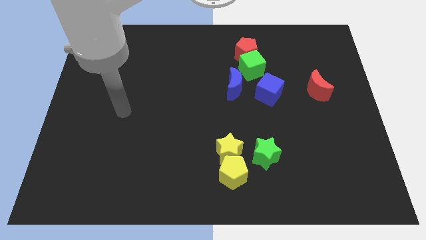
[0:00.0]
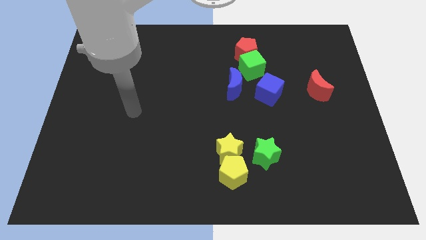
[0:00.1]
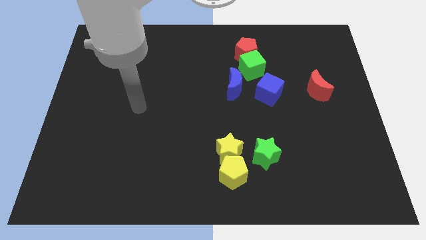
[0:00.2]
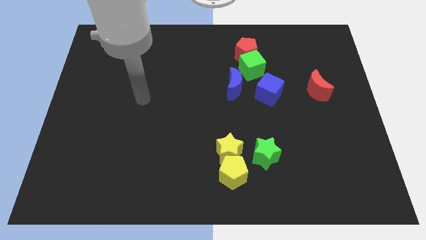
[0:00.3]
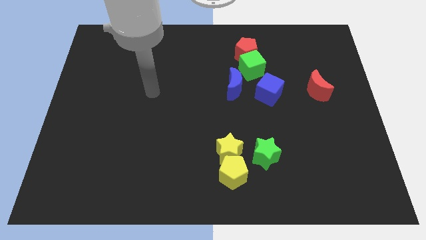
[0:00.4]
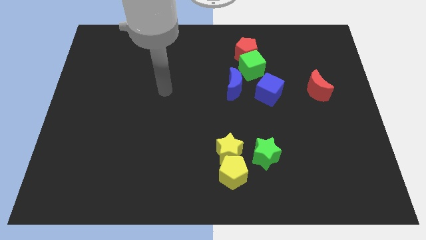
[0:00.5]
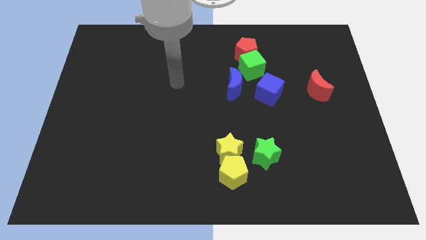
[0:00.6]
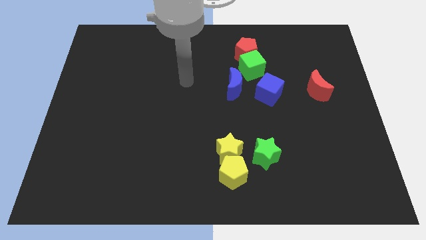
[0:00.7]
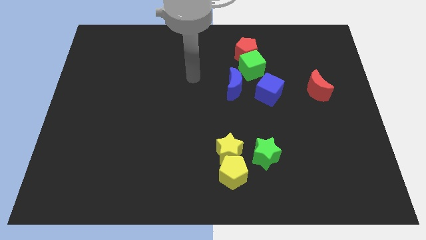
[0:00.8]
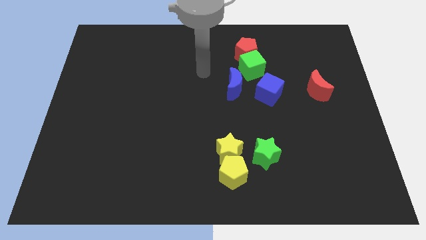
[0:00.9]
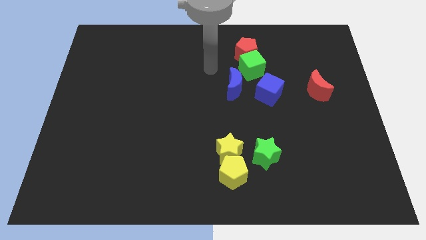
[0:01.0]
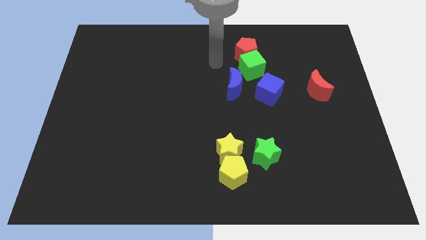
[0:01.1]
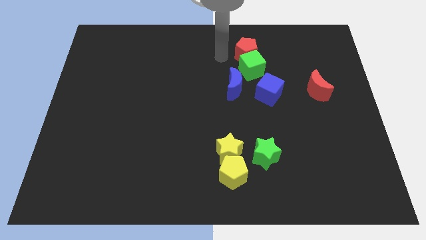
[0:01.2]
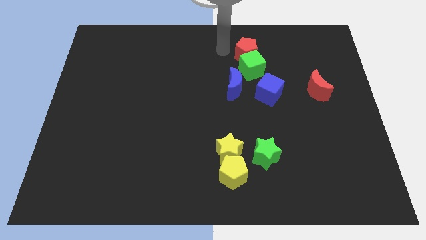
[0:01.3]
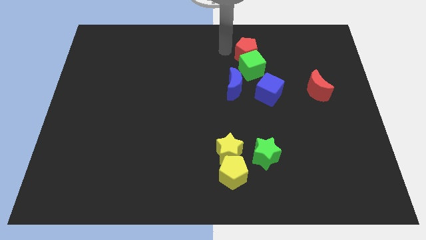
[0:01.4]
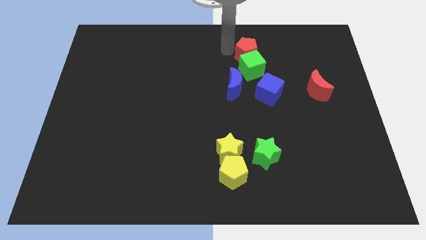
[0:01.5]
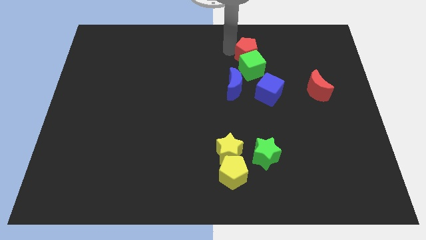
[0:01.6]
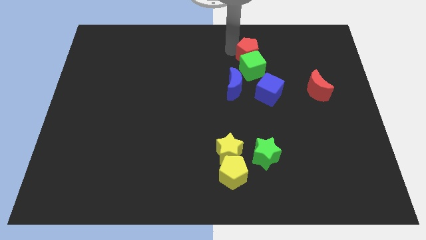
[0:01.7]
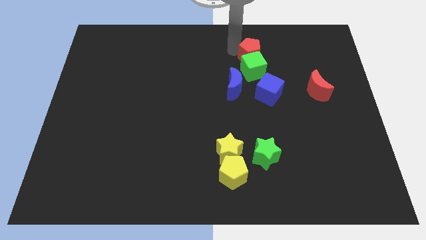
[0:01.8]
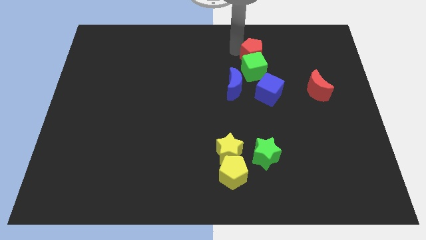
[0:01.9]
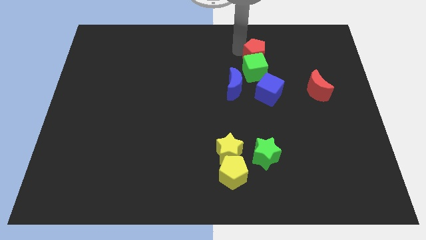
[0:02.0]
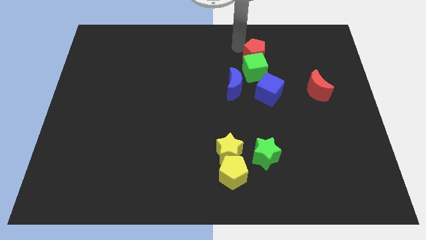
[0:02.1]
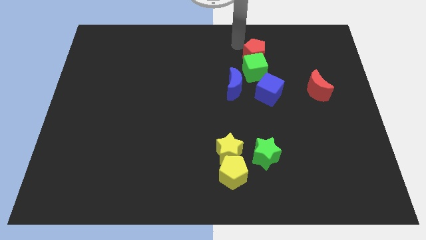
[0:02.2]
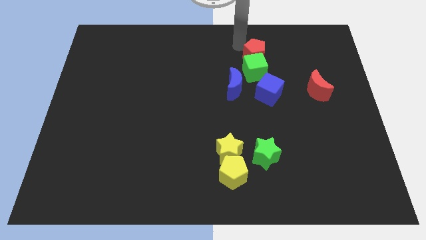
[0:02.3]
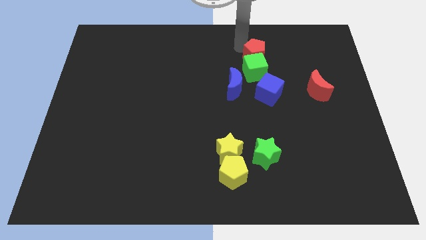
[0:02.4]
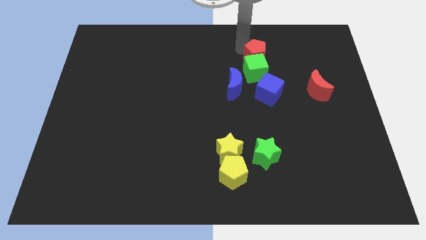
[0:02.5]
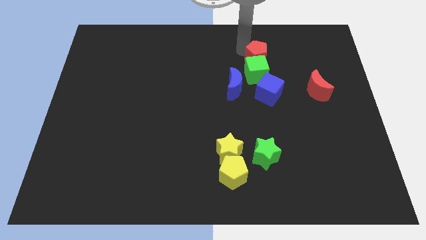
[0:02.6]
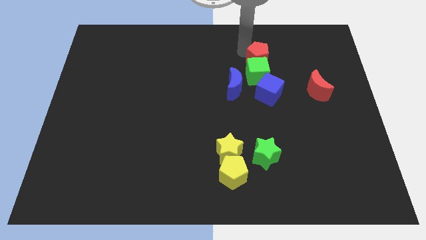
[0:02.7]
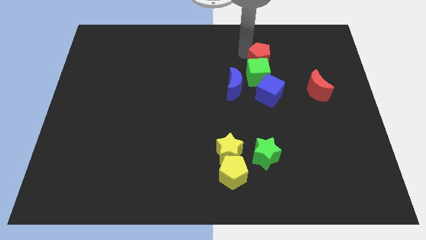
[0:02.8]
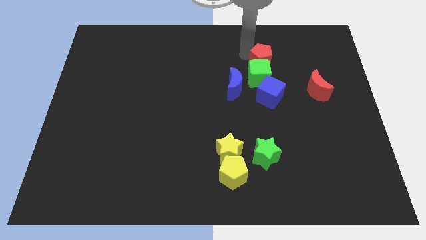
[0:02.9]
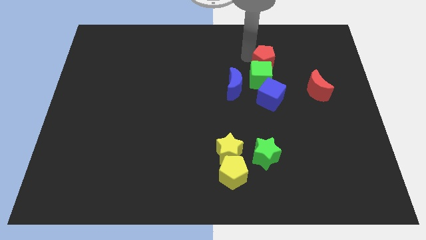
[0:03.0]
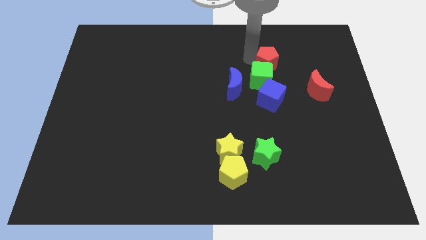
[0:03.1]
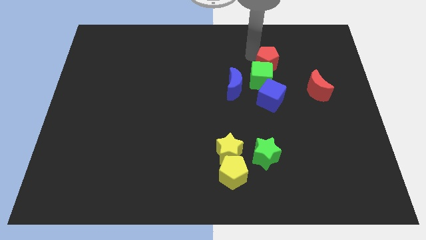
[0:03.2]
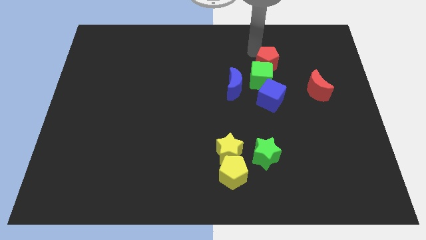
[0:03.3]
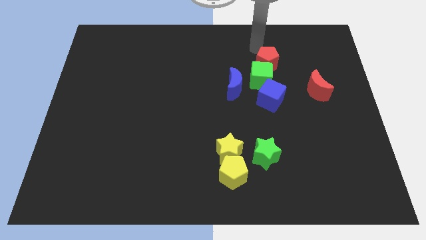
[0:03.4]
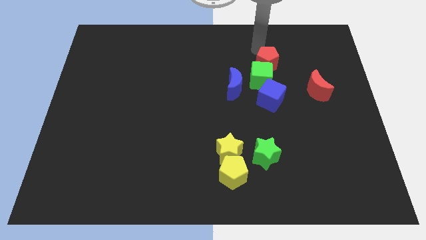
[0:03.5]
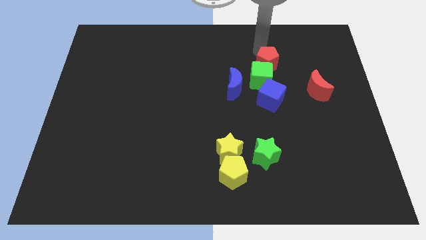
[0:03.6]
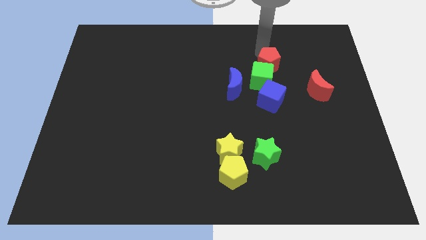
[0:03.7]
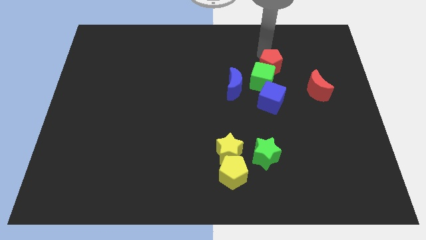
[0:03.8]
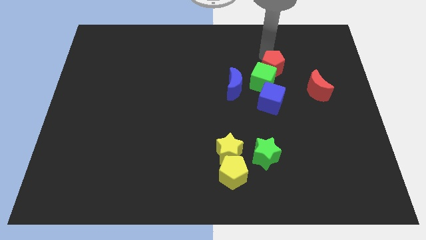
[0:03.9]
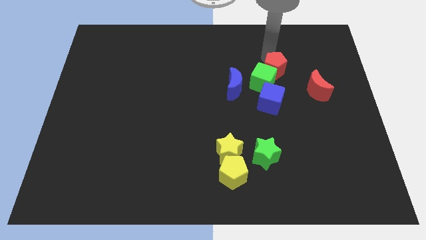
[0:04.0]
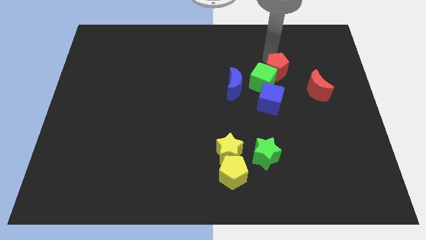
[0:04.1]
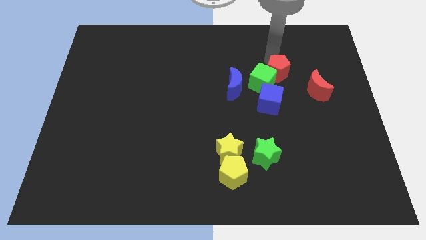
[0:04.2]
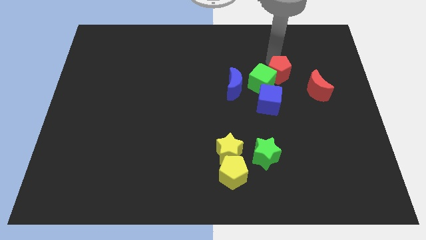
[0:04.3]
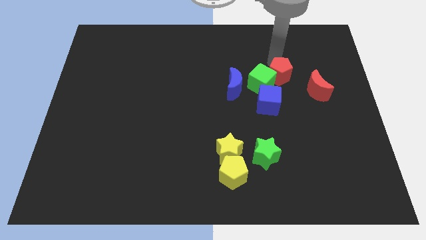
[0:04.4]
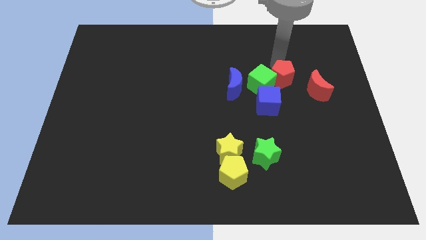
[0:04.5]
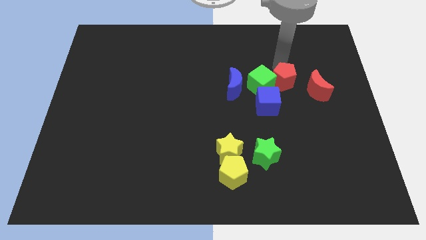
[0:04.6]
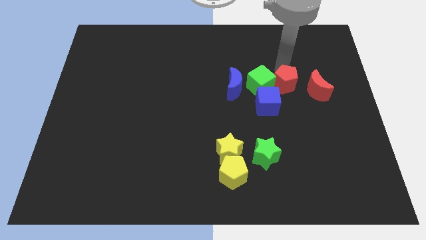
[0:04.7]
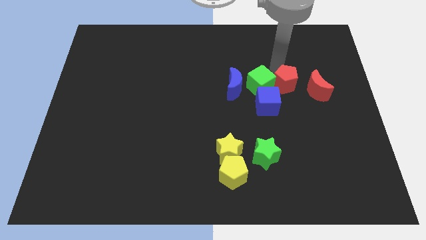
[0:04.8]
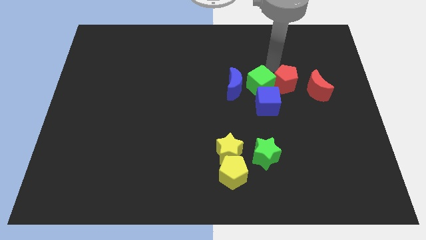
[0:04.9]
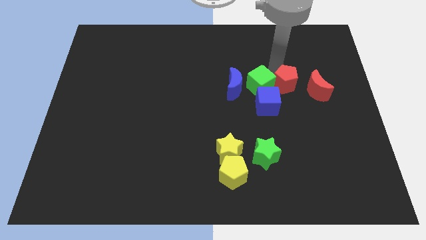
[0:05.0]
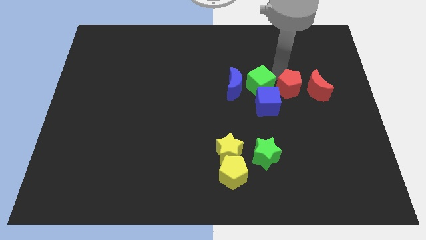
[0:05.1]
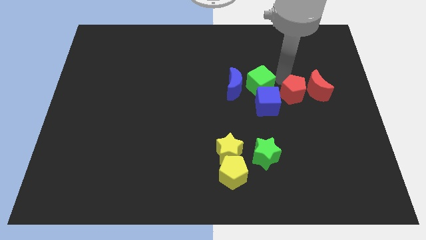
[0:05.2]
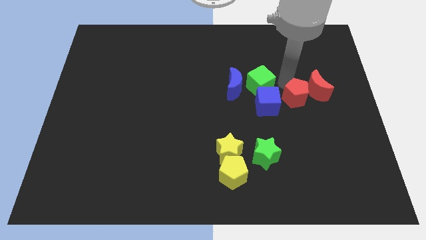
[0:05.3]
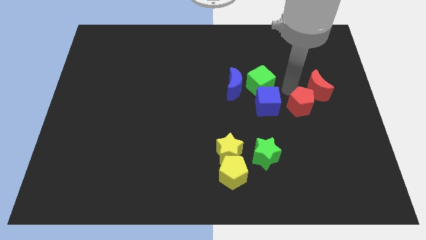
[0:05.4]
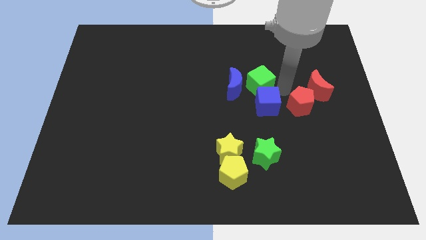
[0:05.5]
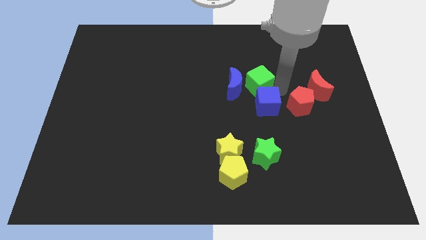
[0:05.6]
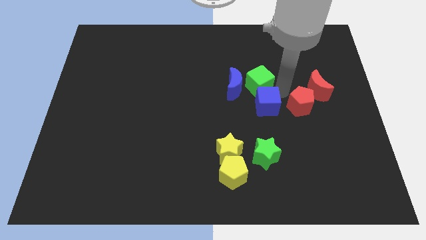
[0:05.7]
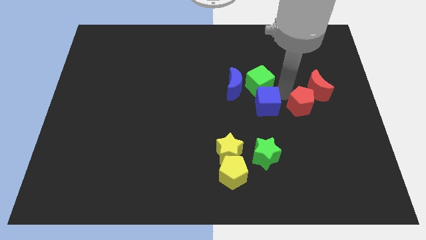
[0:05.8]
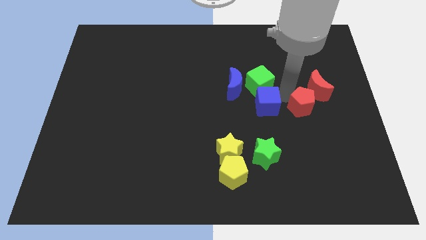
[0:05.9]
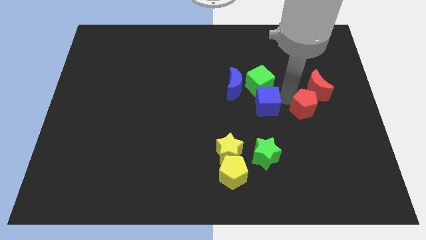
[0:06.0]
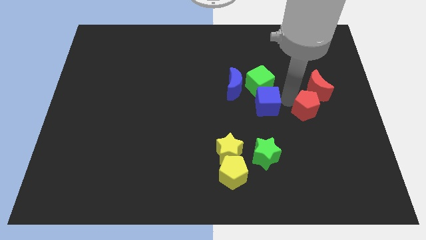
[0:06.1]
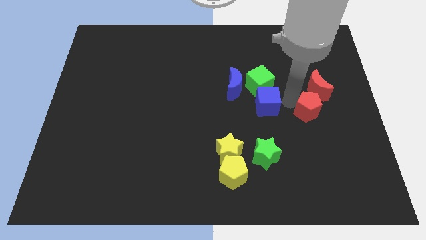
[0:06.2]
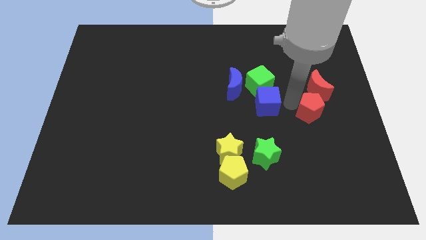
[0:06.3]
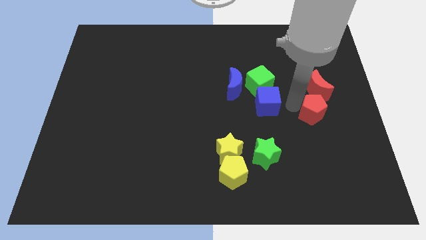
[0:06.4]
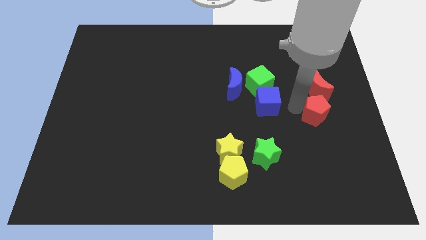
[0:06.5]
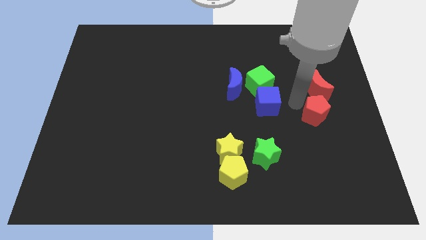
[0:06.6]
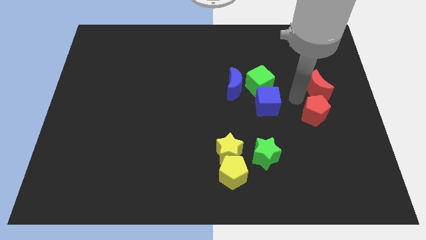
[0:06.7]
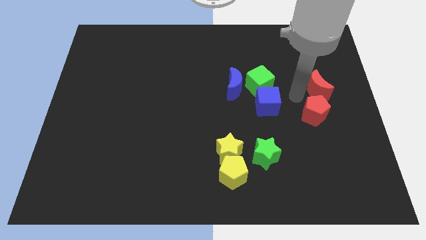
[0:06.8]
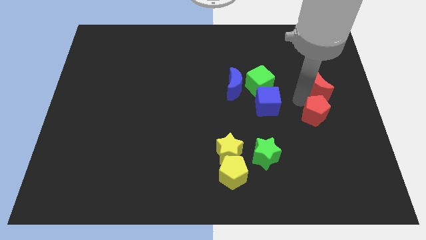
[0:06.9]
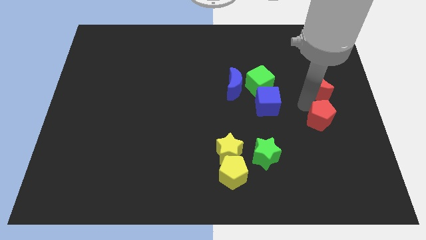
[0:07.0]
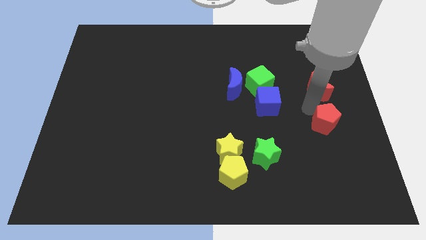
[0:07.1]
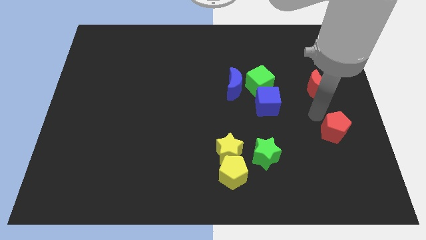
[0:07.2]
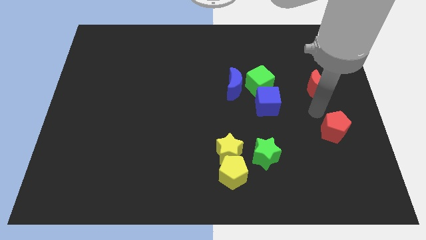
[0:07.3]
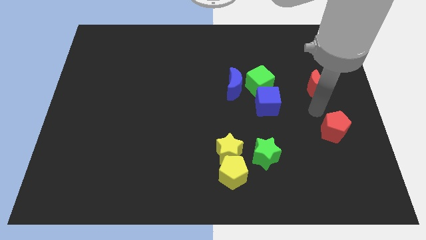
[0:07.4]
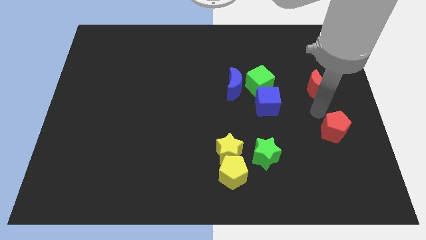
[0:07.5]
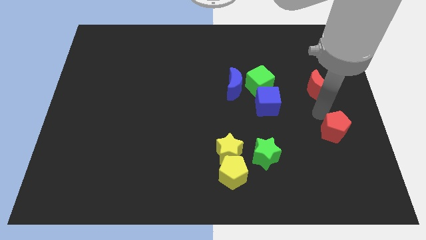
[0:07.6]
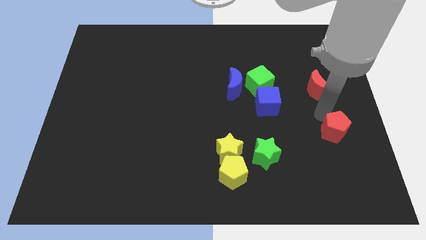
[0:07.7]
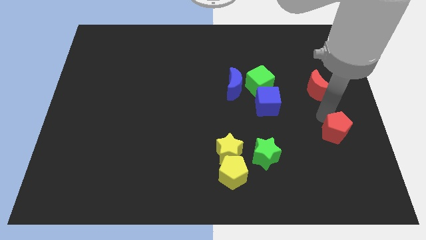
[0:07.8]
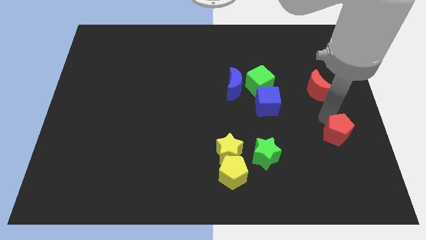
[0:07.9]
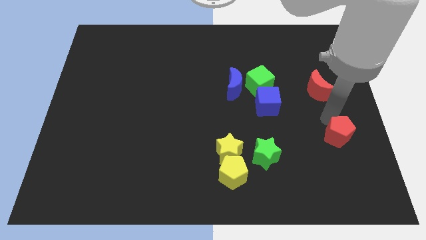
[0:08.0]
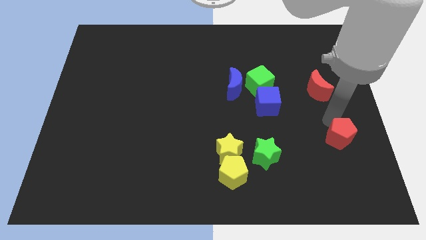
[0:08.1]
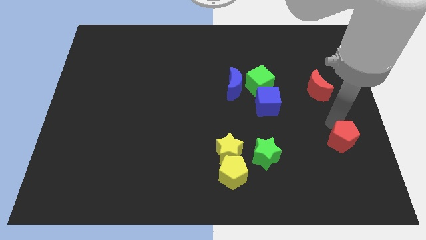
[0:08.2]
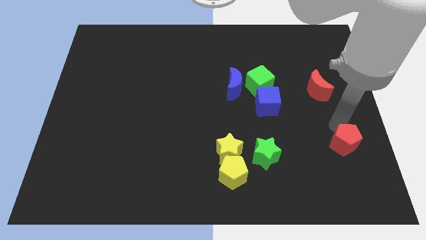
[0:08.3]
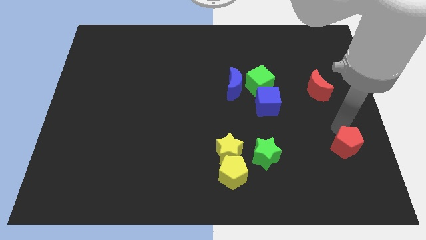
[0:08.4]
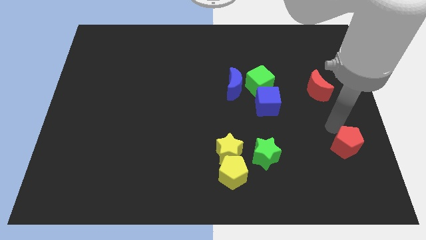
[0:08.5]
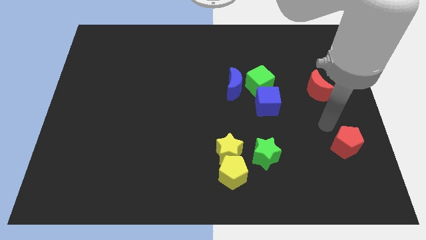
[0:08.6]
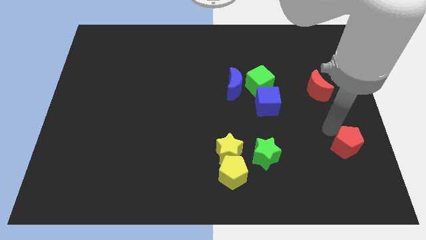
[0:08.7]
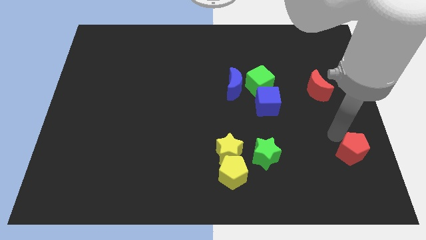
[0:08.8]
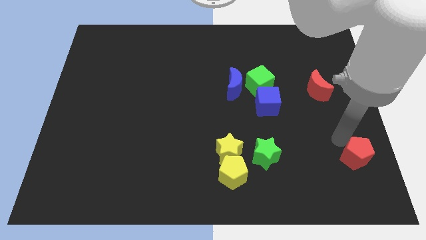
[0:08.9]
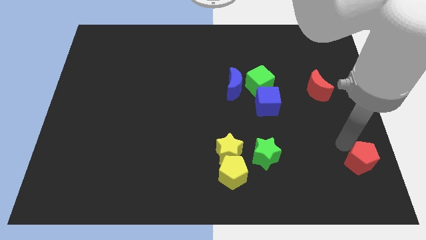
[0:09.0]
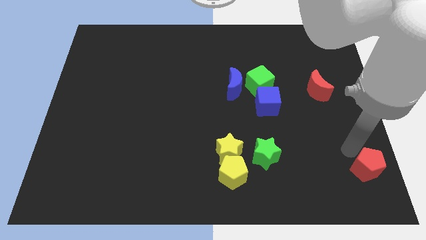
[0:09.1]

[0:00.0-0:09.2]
move the red pentagon to the bottom right corner
